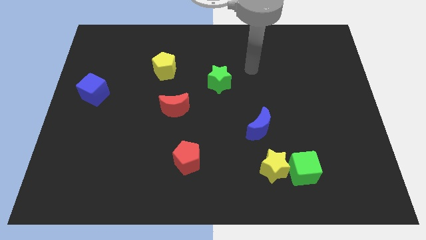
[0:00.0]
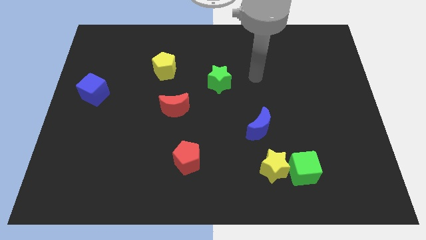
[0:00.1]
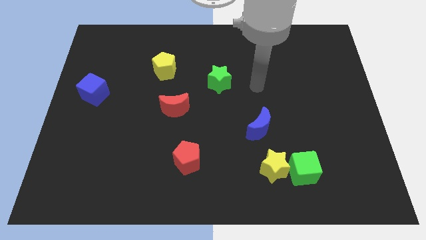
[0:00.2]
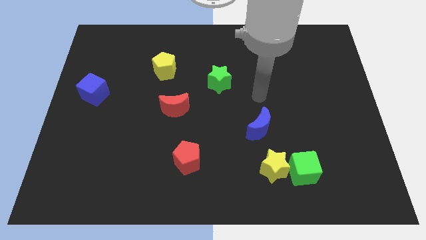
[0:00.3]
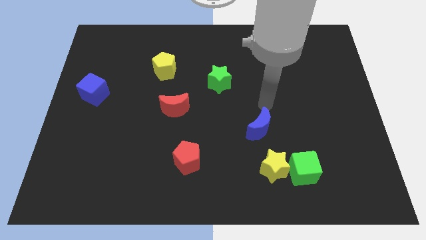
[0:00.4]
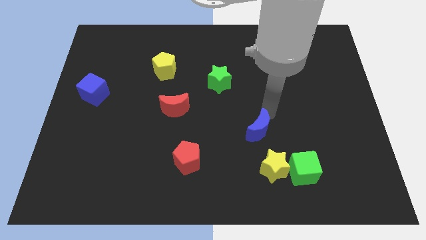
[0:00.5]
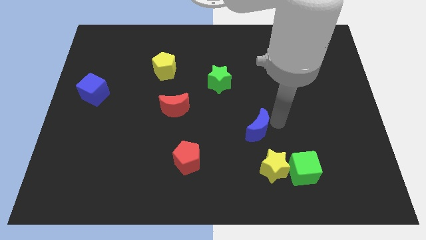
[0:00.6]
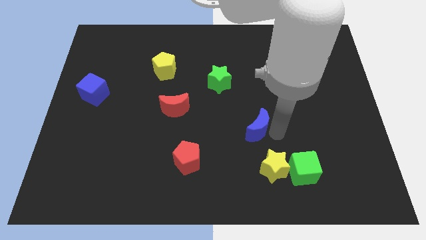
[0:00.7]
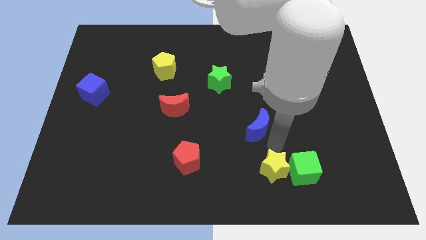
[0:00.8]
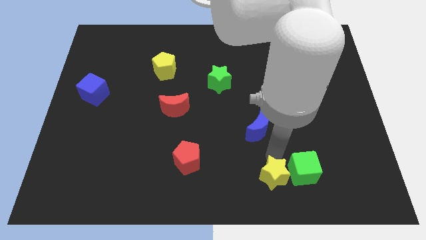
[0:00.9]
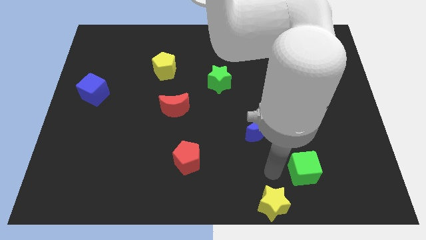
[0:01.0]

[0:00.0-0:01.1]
separate the green cube from the yellow star

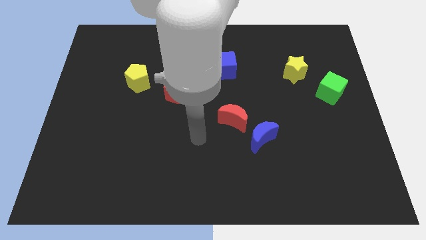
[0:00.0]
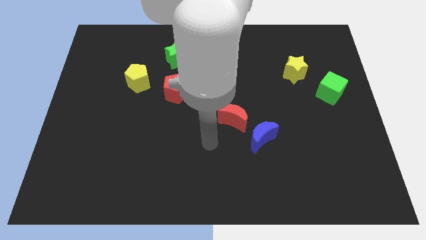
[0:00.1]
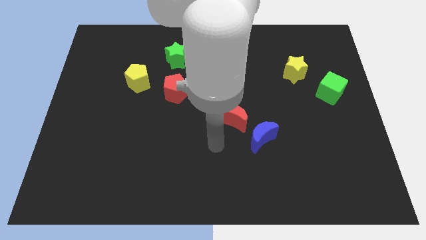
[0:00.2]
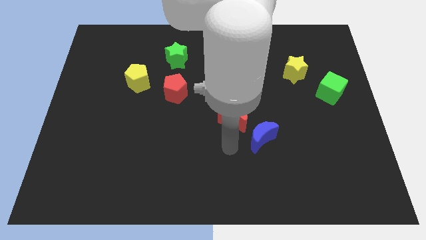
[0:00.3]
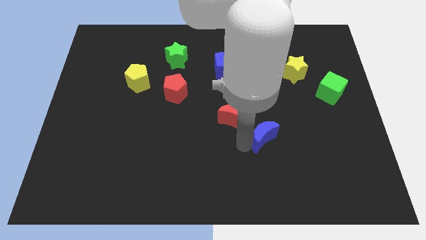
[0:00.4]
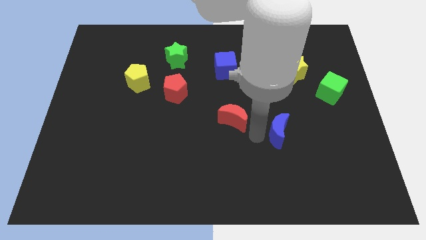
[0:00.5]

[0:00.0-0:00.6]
move the red moon away from the blue moon

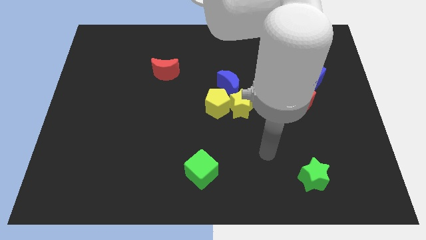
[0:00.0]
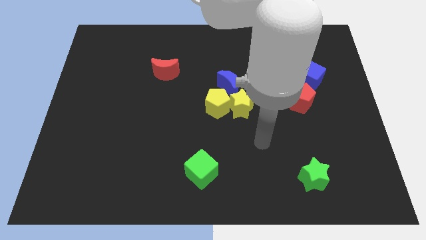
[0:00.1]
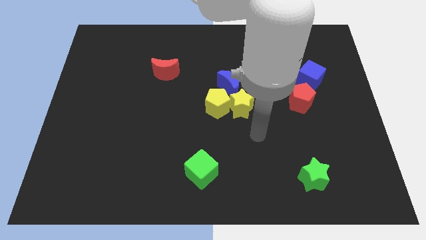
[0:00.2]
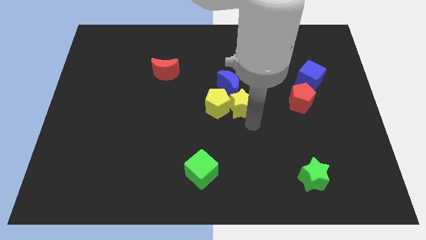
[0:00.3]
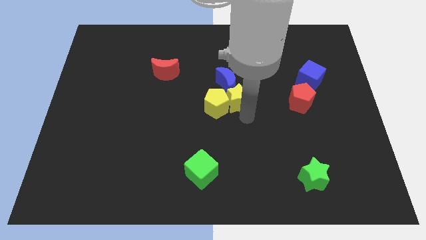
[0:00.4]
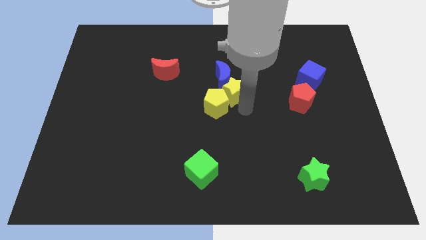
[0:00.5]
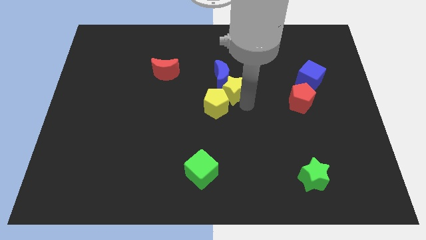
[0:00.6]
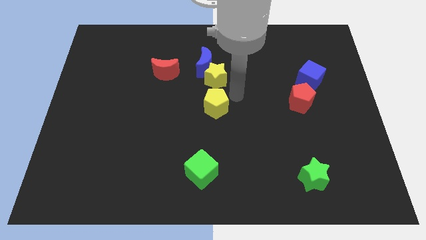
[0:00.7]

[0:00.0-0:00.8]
separate the yellow pentagon from the yellow star and blue moon

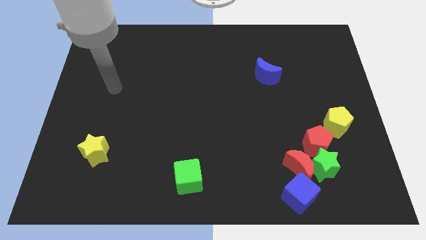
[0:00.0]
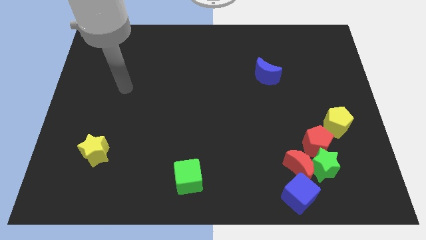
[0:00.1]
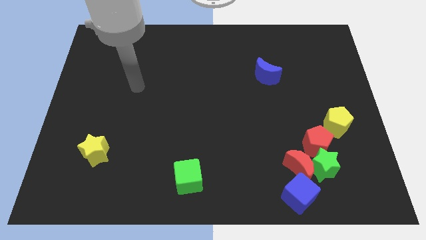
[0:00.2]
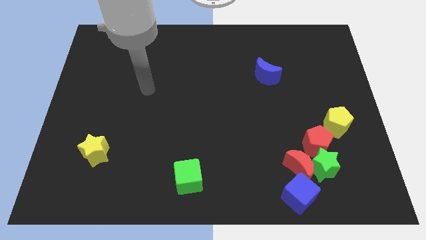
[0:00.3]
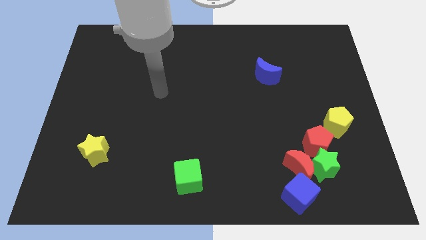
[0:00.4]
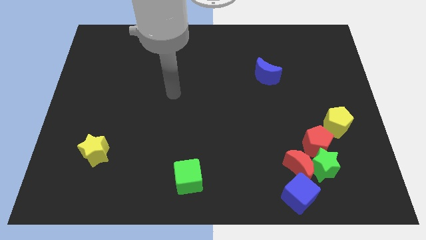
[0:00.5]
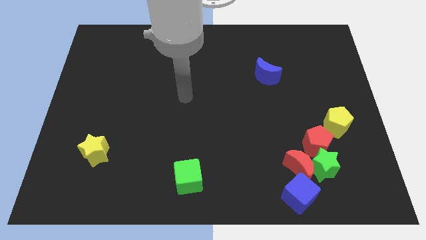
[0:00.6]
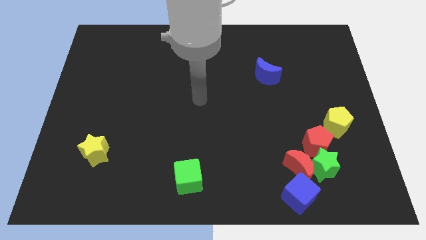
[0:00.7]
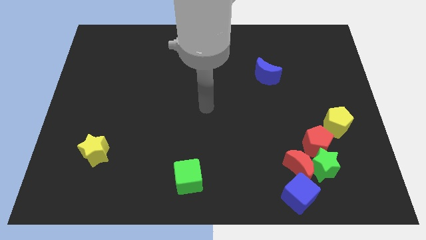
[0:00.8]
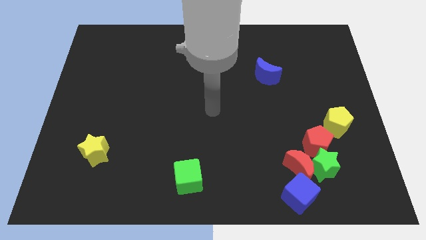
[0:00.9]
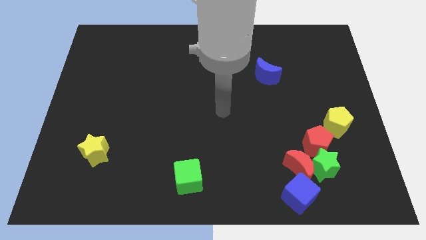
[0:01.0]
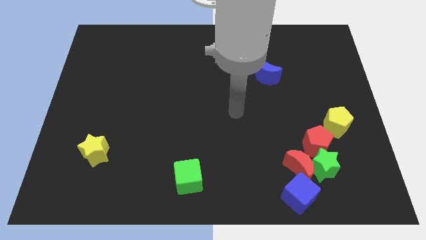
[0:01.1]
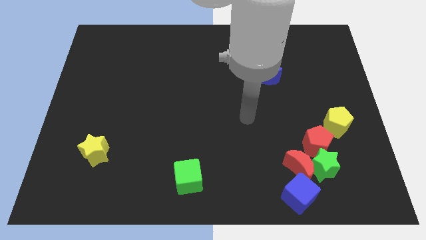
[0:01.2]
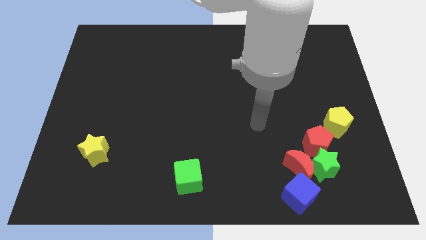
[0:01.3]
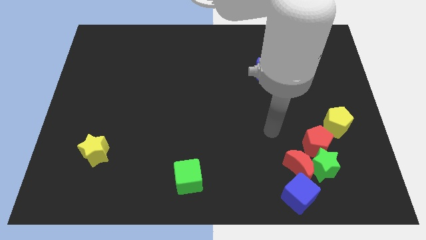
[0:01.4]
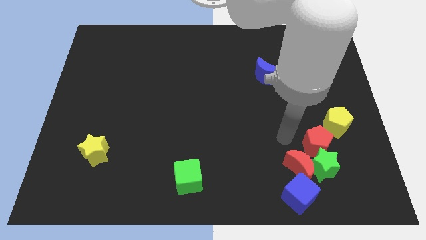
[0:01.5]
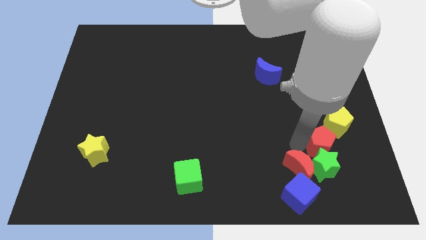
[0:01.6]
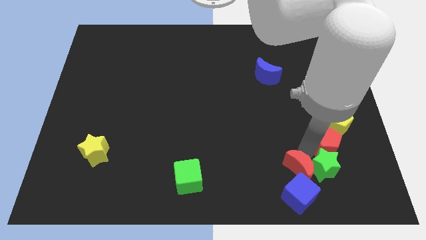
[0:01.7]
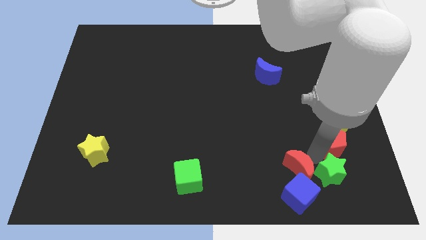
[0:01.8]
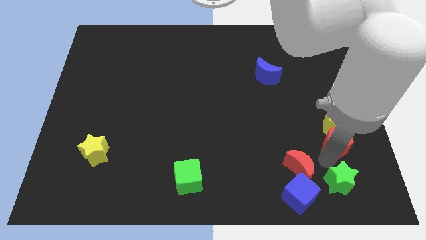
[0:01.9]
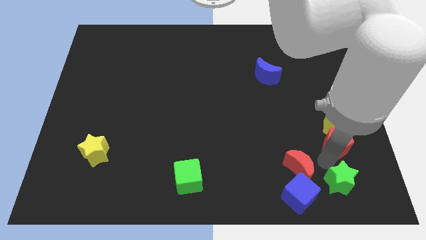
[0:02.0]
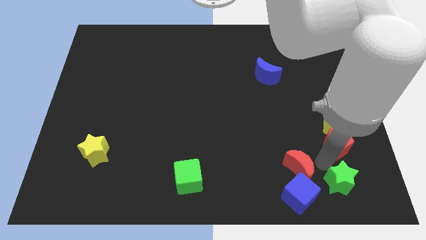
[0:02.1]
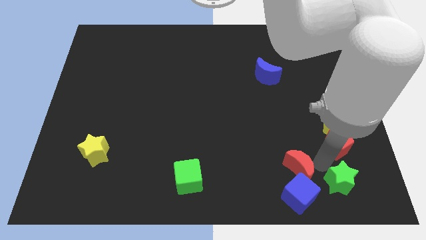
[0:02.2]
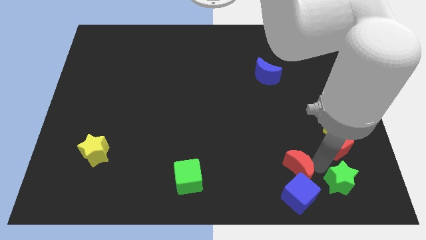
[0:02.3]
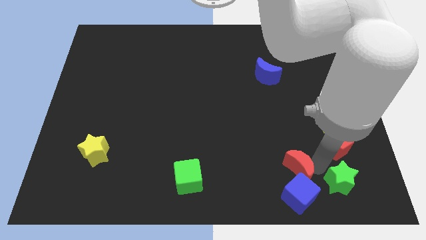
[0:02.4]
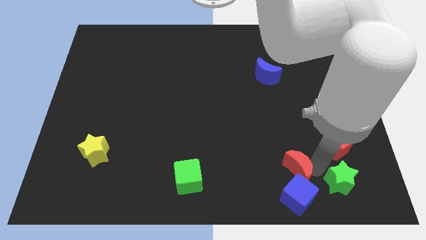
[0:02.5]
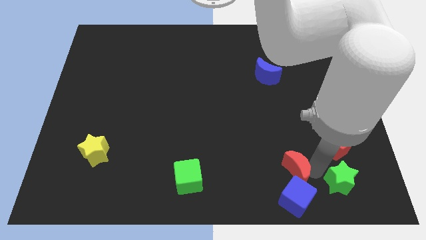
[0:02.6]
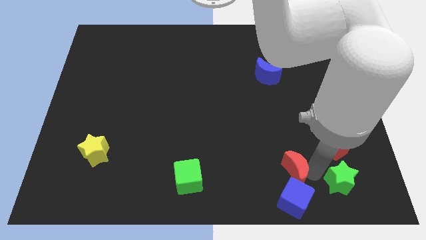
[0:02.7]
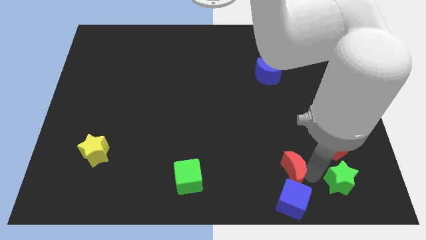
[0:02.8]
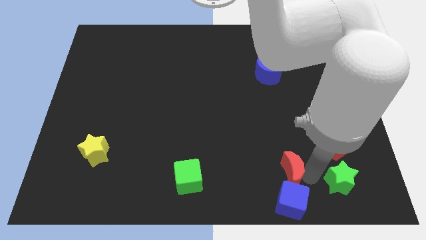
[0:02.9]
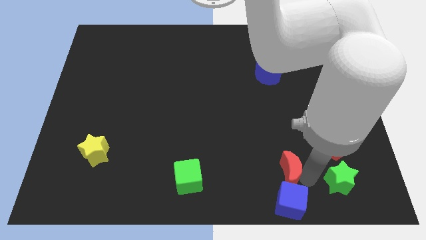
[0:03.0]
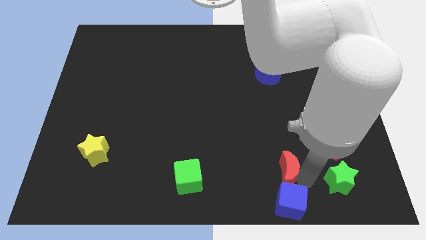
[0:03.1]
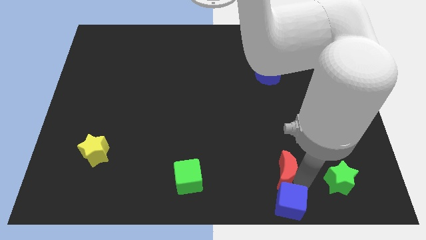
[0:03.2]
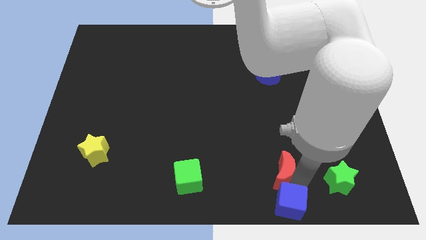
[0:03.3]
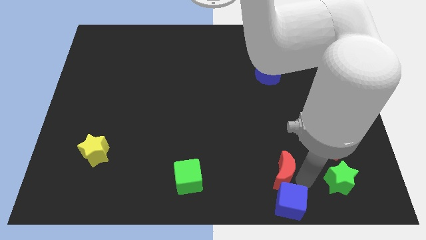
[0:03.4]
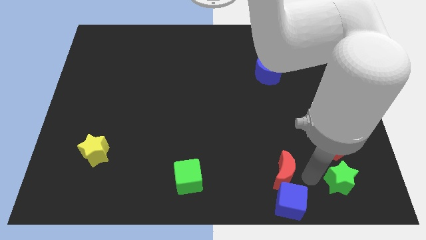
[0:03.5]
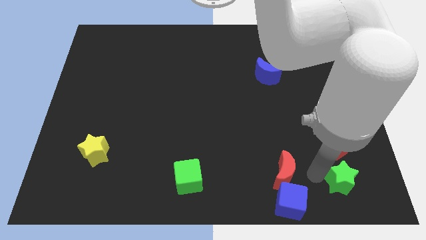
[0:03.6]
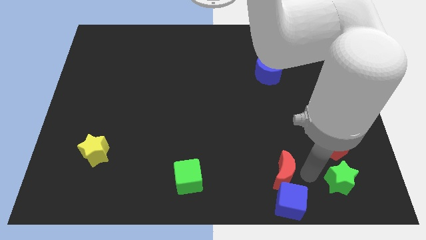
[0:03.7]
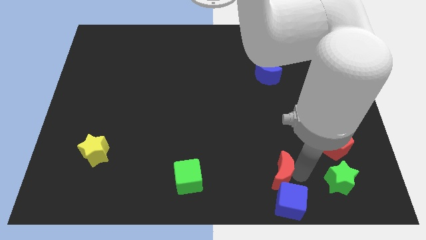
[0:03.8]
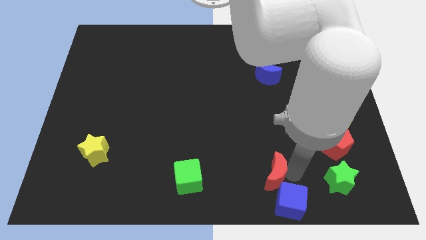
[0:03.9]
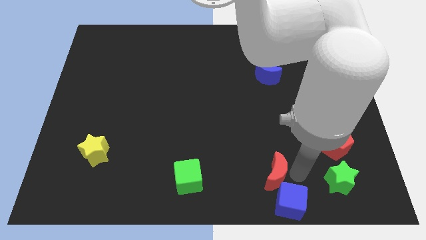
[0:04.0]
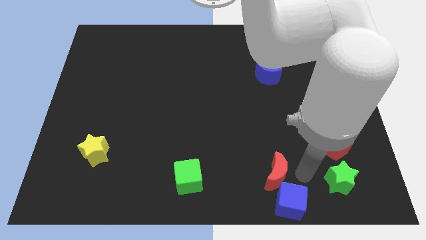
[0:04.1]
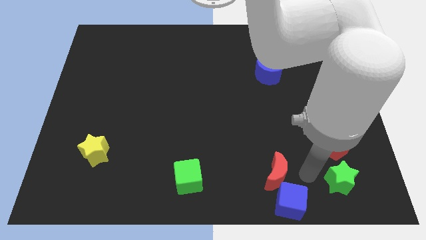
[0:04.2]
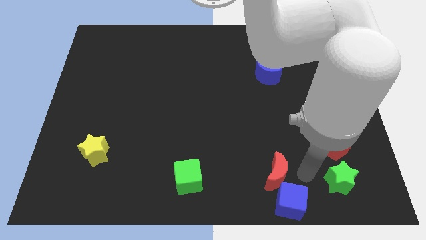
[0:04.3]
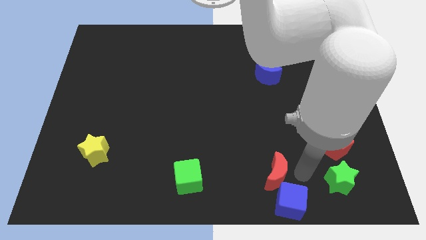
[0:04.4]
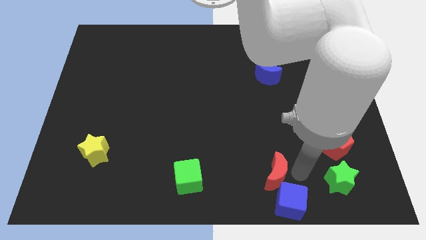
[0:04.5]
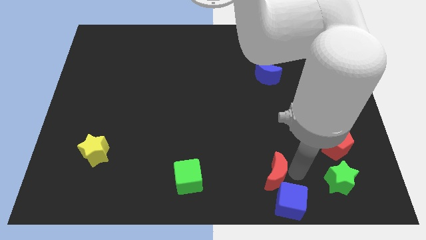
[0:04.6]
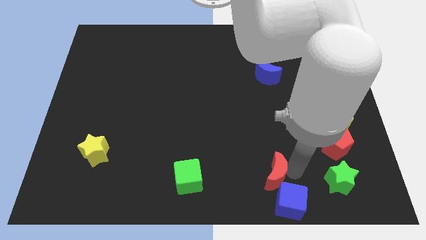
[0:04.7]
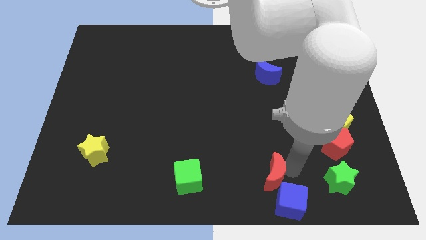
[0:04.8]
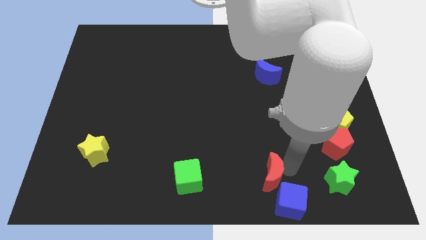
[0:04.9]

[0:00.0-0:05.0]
move the red moon away from the group

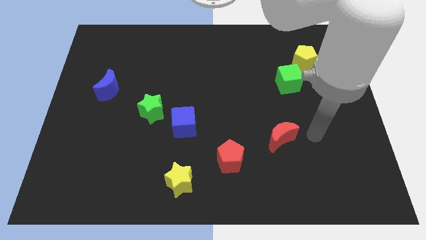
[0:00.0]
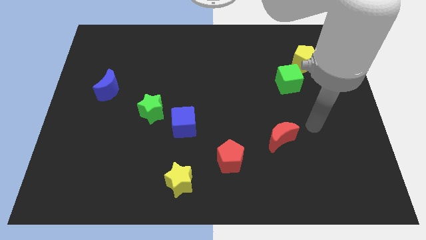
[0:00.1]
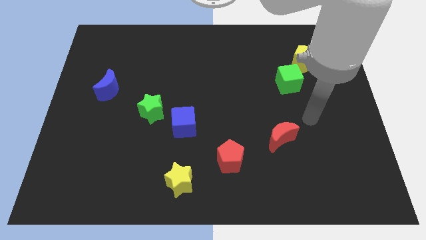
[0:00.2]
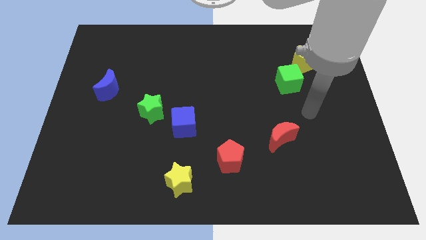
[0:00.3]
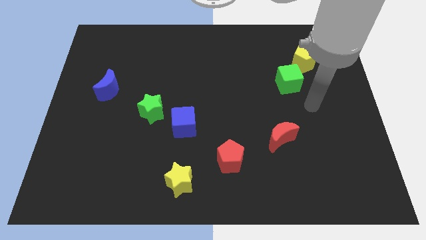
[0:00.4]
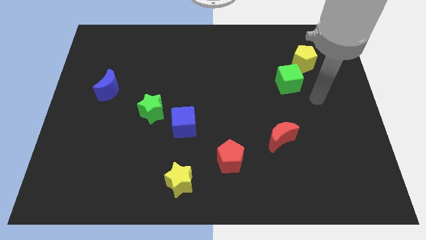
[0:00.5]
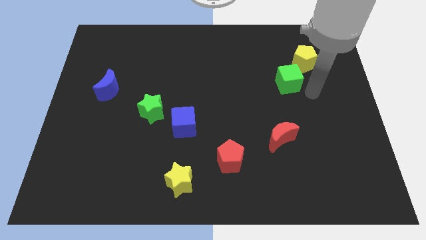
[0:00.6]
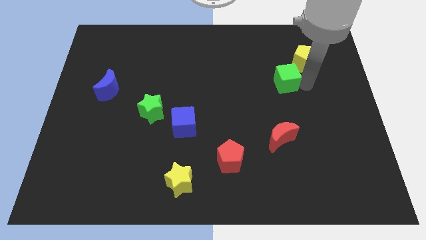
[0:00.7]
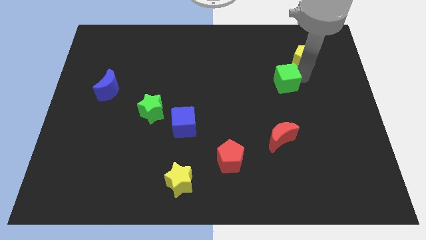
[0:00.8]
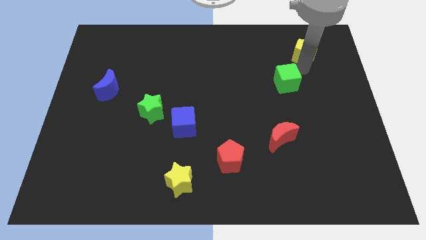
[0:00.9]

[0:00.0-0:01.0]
move the green cube away from the yellow pentagon

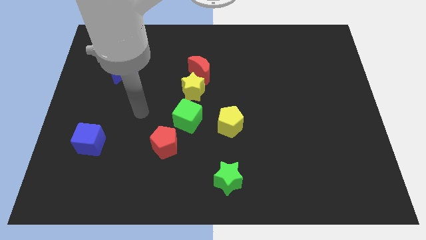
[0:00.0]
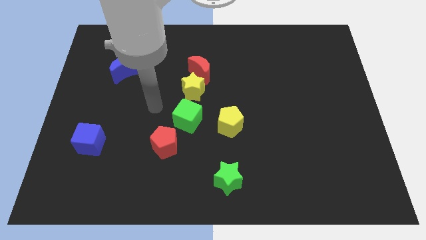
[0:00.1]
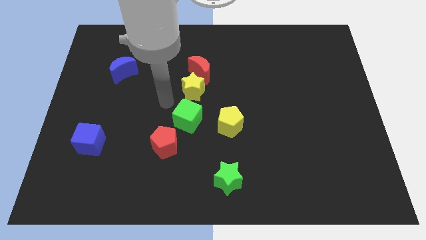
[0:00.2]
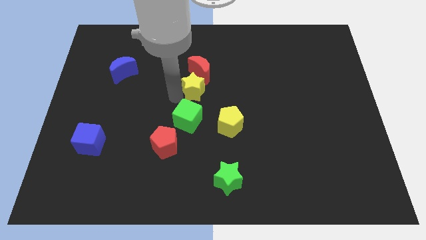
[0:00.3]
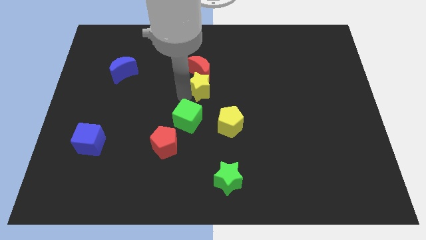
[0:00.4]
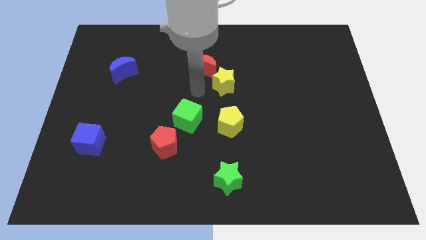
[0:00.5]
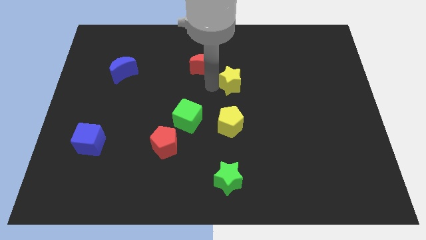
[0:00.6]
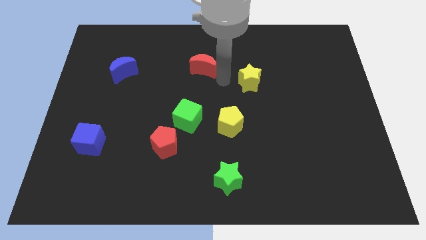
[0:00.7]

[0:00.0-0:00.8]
separate the red moon from the yellow star
